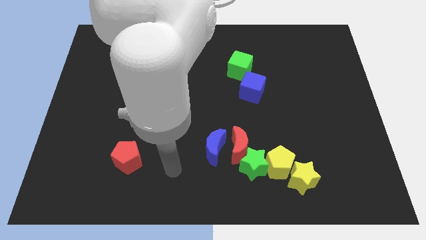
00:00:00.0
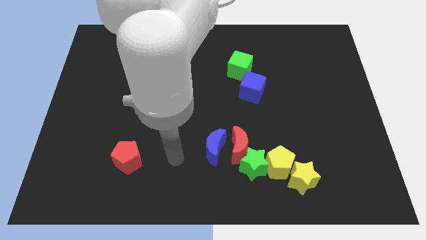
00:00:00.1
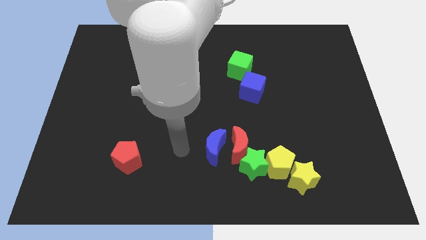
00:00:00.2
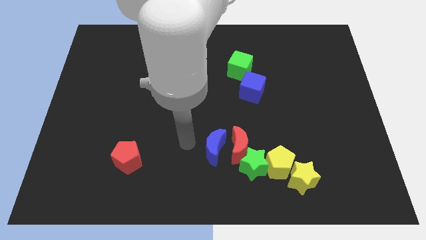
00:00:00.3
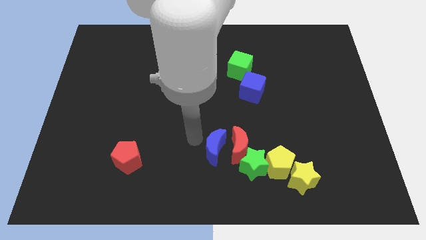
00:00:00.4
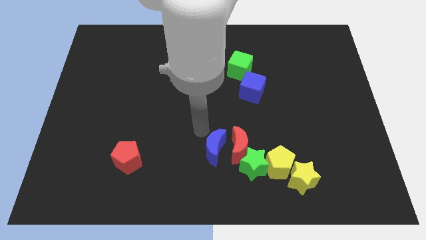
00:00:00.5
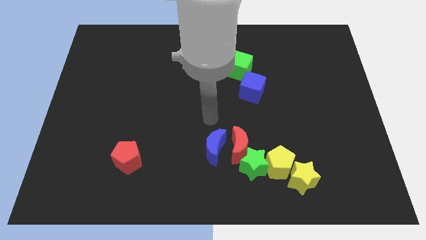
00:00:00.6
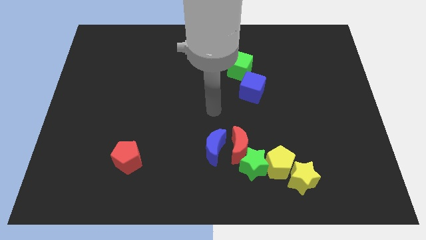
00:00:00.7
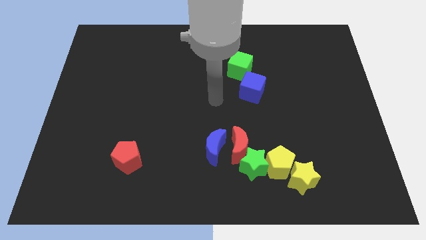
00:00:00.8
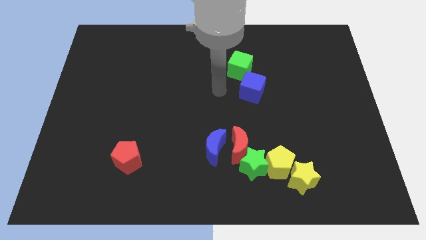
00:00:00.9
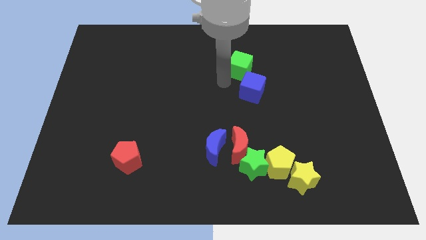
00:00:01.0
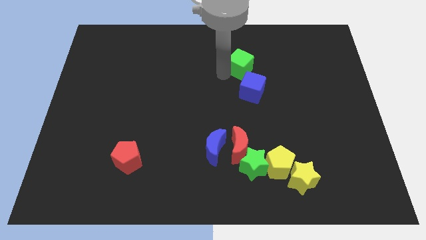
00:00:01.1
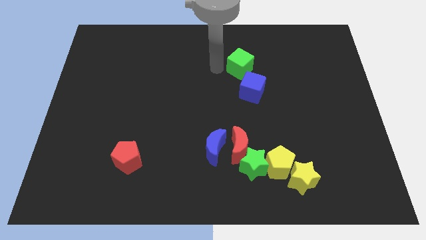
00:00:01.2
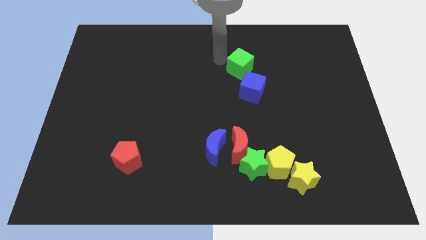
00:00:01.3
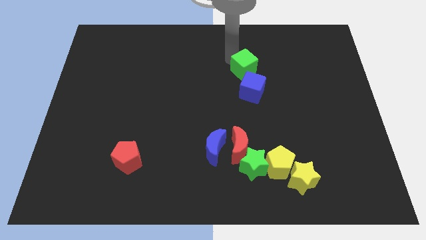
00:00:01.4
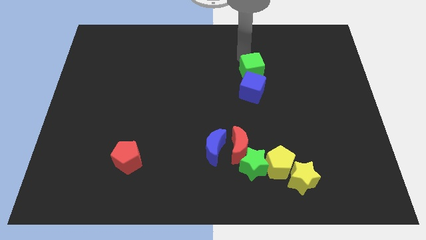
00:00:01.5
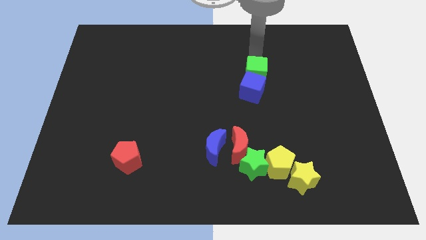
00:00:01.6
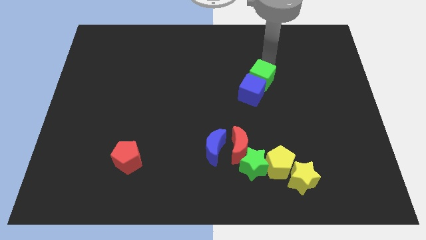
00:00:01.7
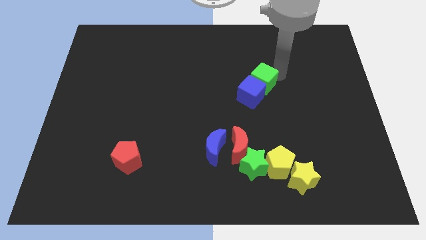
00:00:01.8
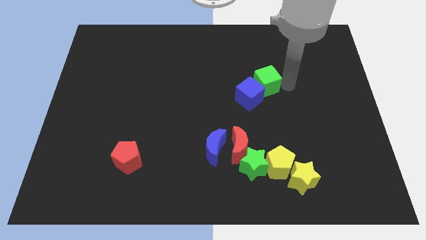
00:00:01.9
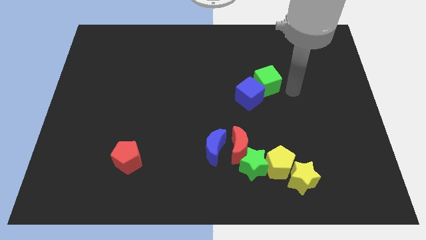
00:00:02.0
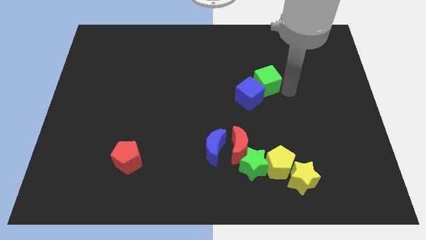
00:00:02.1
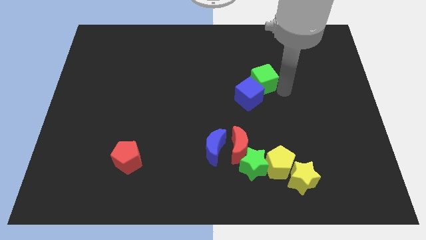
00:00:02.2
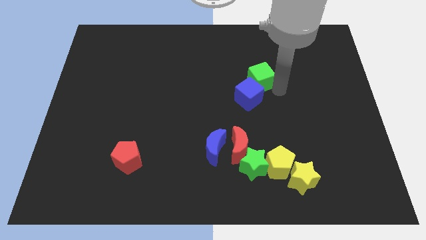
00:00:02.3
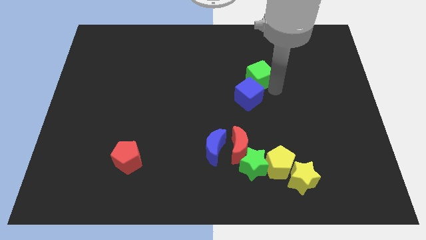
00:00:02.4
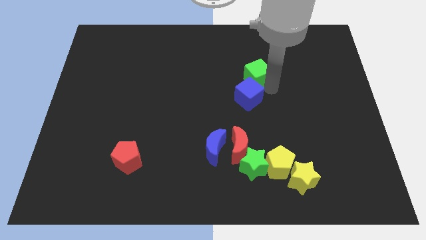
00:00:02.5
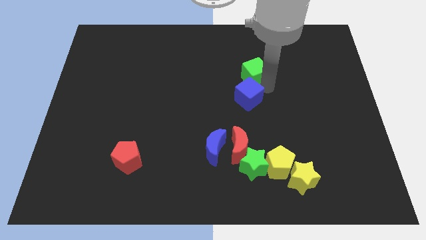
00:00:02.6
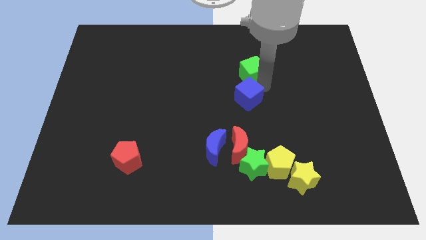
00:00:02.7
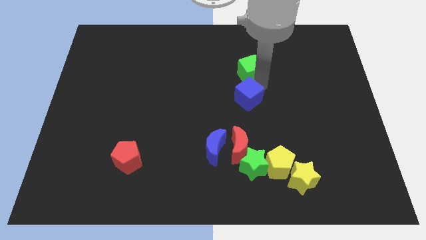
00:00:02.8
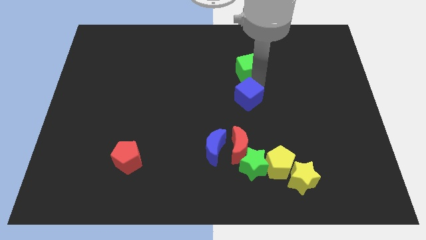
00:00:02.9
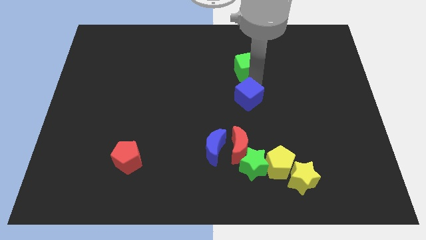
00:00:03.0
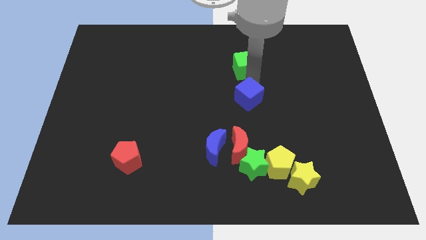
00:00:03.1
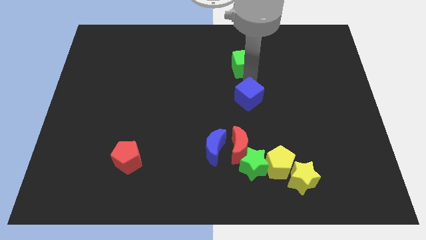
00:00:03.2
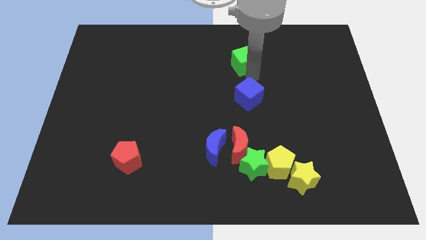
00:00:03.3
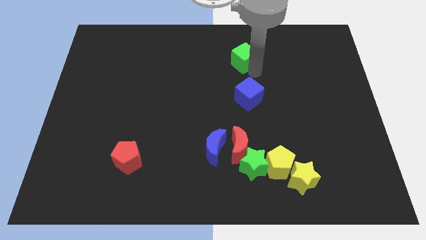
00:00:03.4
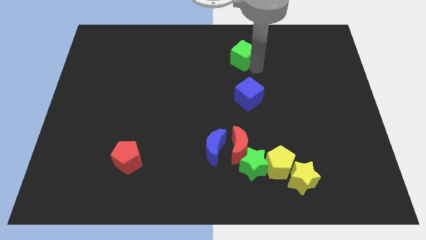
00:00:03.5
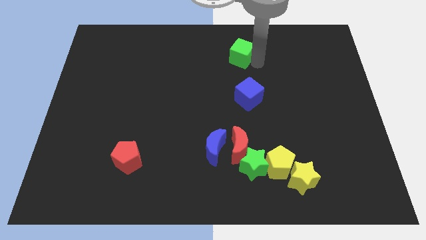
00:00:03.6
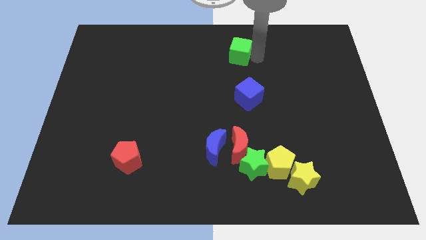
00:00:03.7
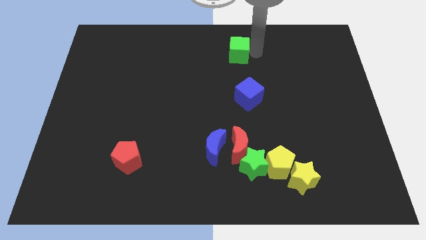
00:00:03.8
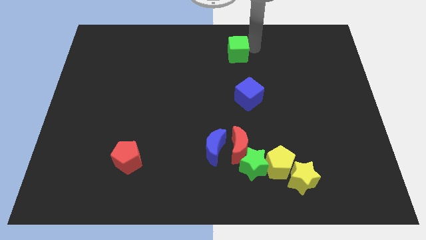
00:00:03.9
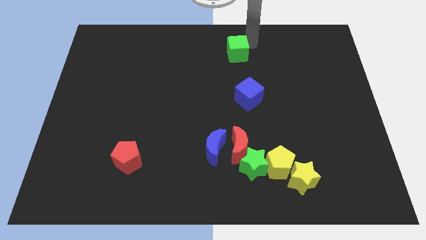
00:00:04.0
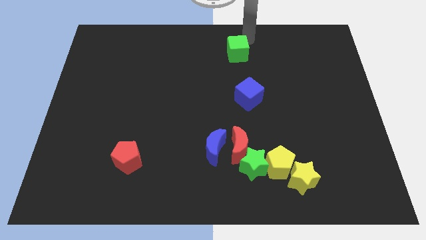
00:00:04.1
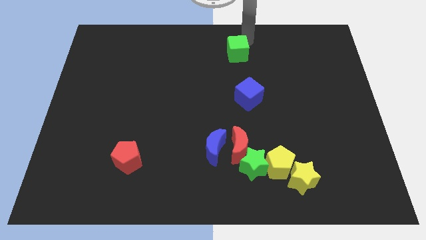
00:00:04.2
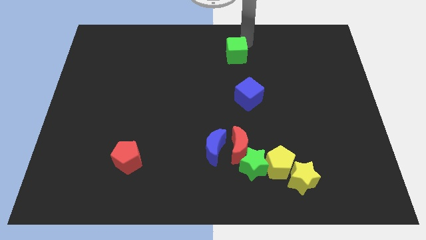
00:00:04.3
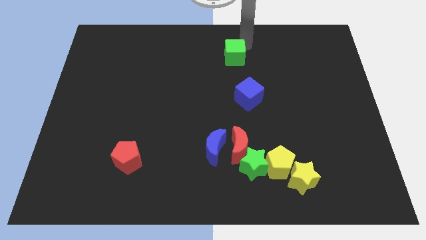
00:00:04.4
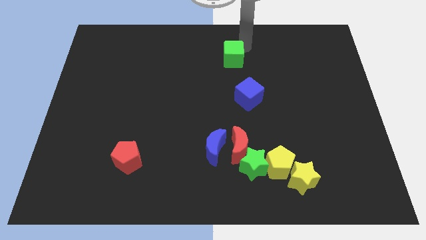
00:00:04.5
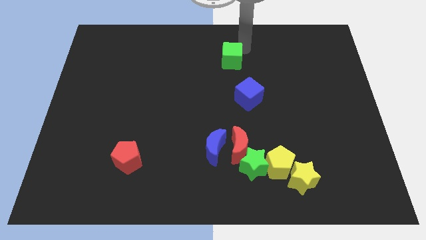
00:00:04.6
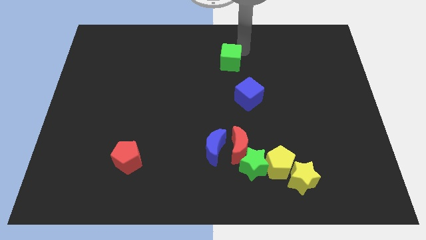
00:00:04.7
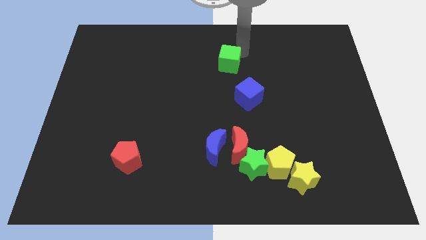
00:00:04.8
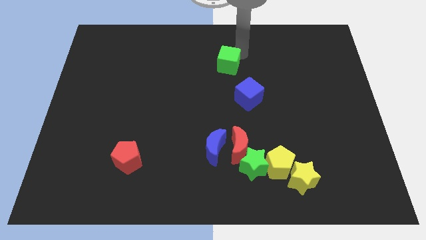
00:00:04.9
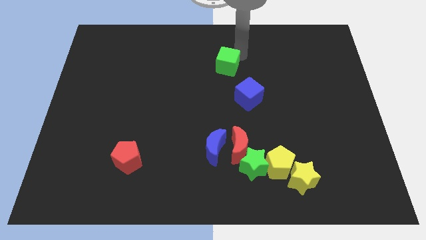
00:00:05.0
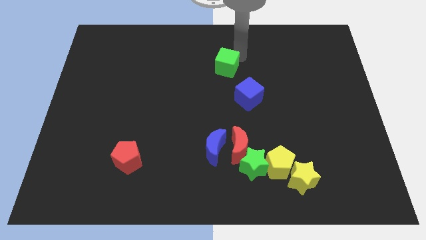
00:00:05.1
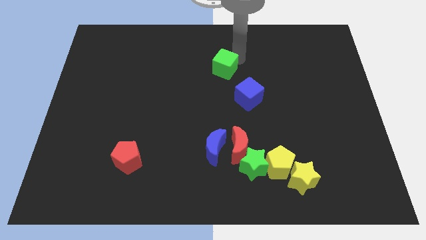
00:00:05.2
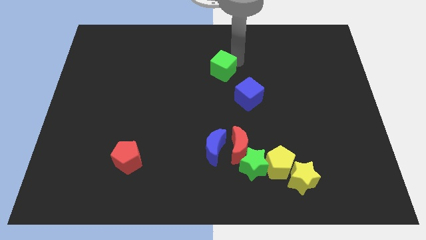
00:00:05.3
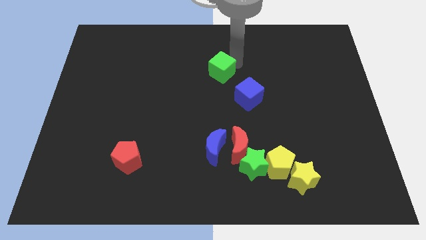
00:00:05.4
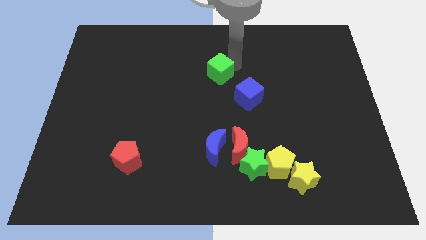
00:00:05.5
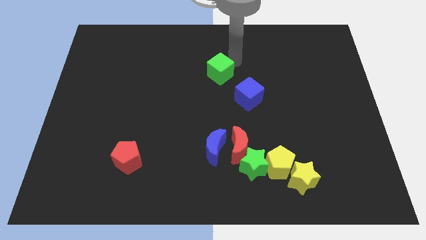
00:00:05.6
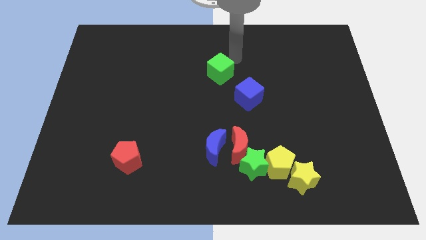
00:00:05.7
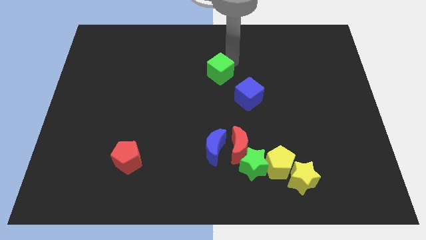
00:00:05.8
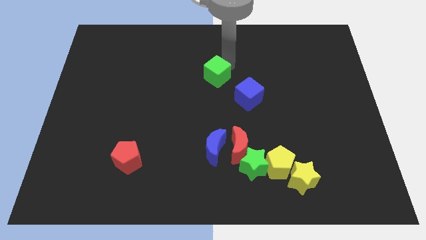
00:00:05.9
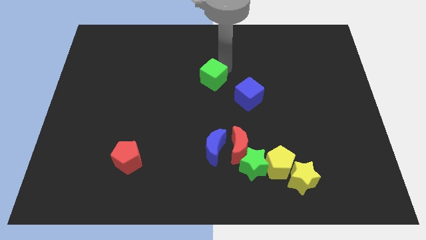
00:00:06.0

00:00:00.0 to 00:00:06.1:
slightly move the green cube down and to the left

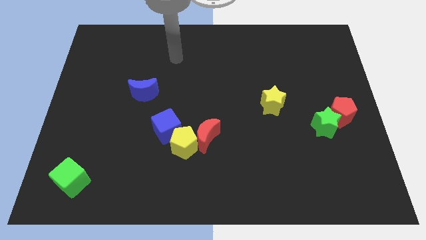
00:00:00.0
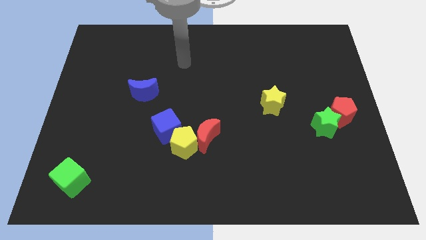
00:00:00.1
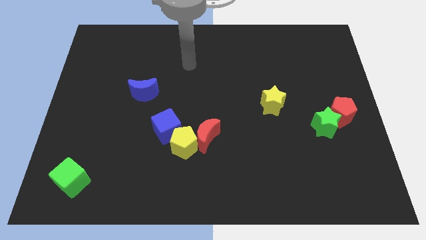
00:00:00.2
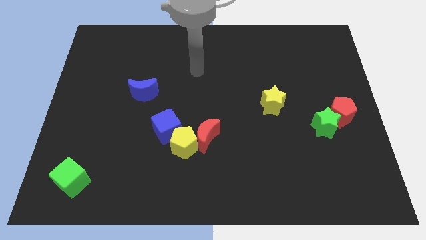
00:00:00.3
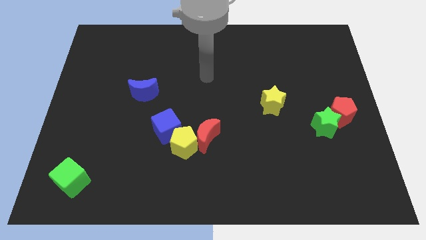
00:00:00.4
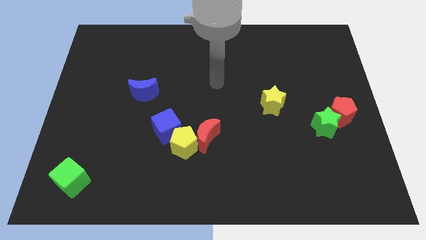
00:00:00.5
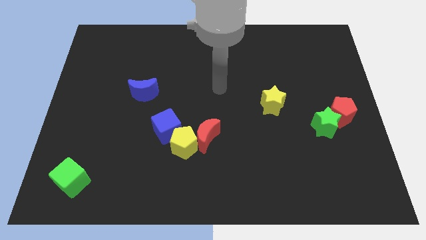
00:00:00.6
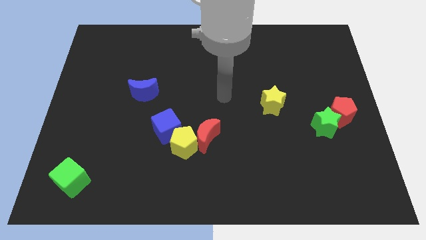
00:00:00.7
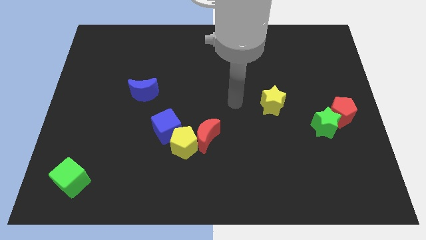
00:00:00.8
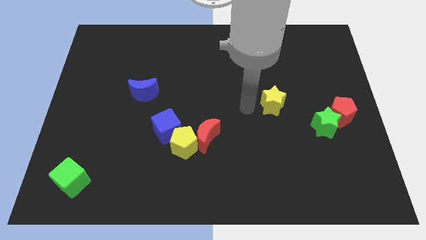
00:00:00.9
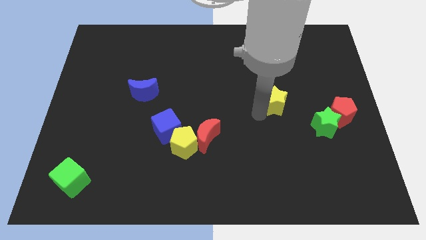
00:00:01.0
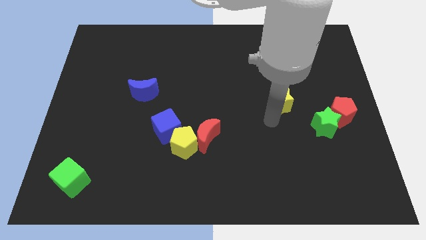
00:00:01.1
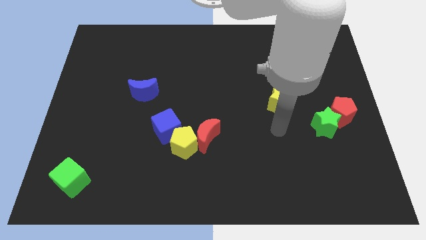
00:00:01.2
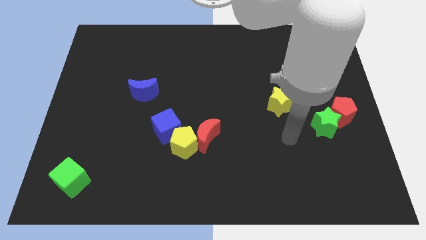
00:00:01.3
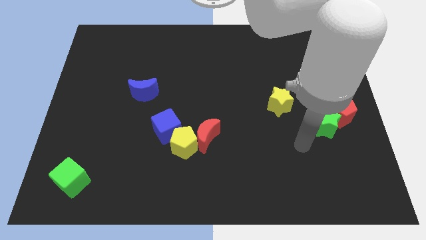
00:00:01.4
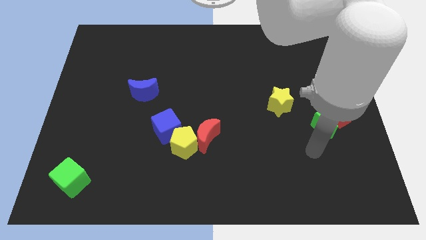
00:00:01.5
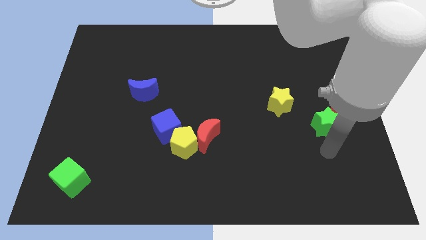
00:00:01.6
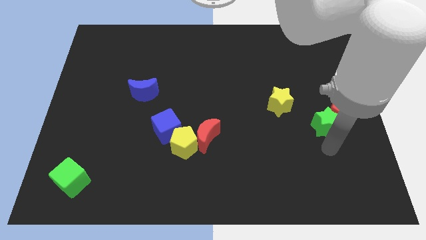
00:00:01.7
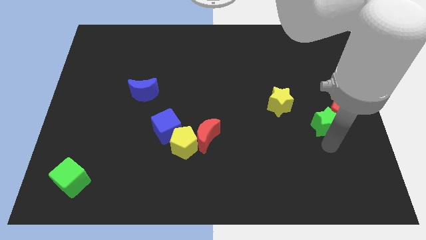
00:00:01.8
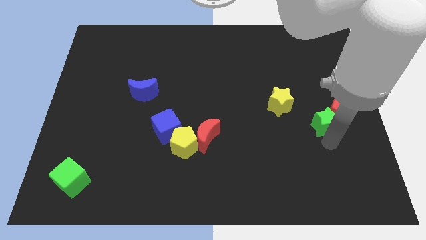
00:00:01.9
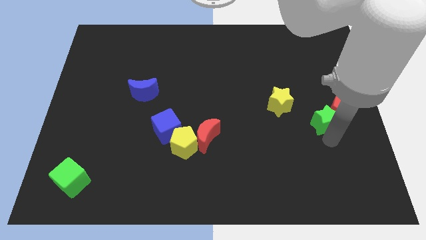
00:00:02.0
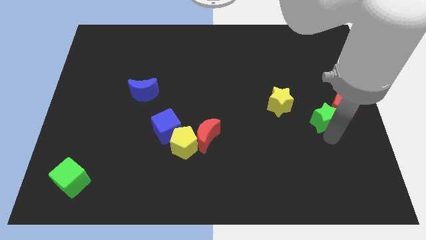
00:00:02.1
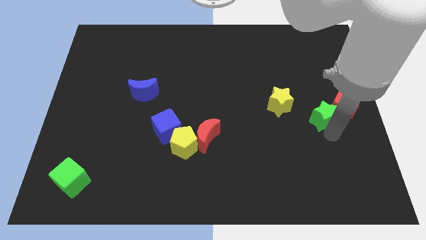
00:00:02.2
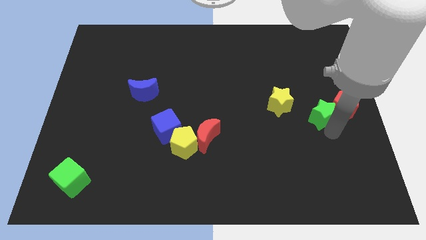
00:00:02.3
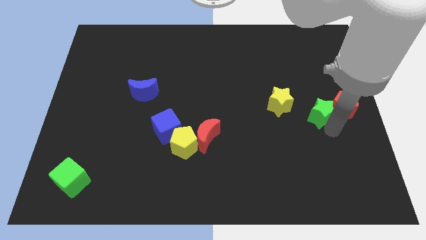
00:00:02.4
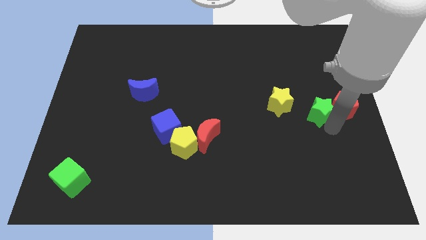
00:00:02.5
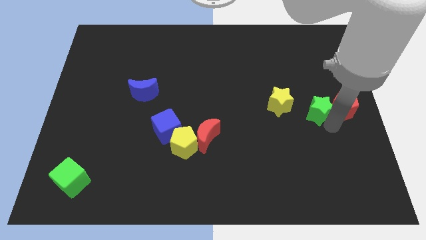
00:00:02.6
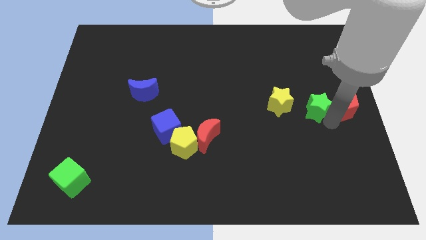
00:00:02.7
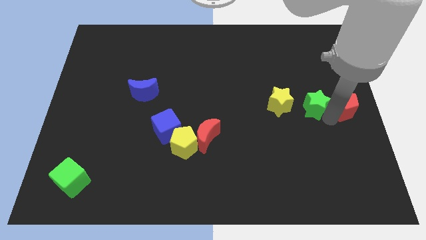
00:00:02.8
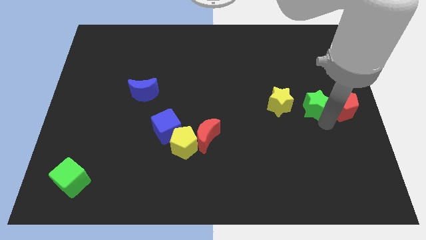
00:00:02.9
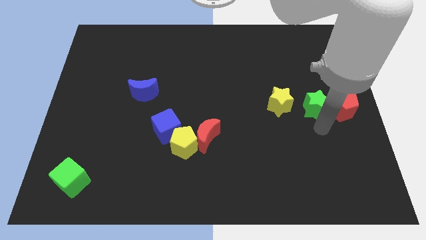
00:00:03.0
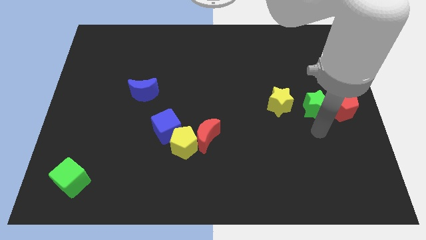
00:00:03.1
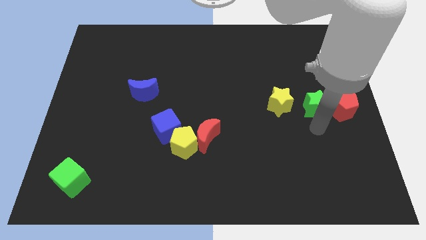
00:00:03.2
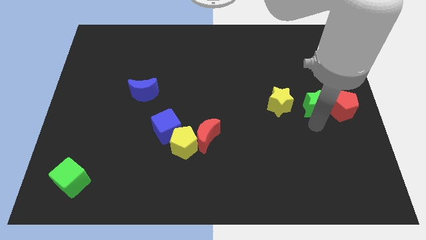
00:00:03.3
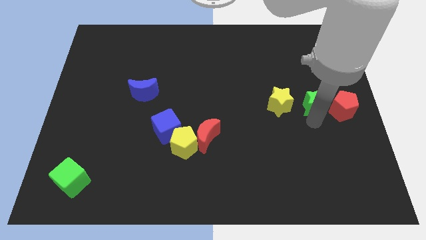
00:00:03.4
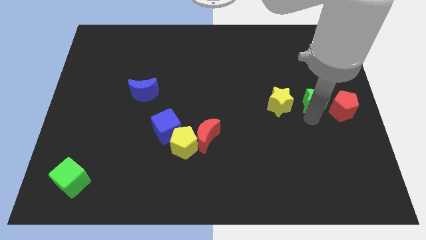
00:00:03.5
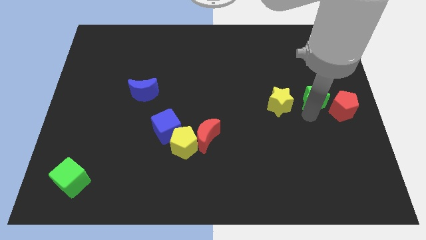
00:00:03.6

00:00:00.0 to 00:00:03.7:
move the green star somewhat upwards
